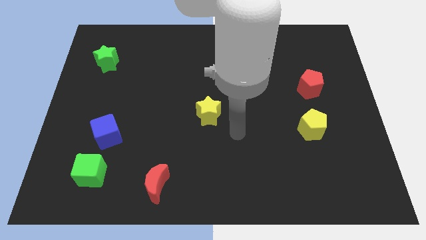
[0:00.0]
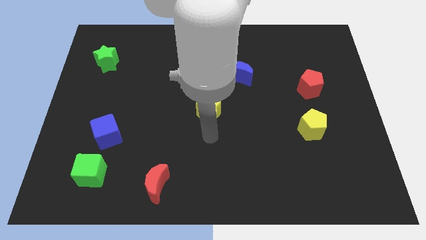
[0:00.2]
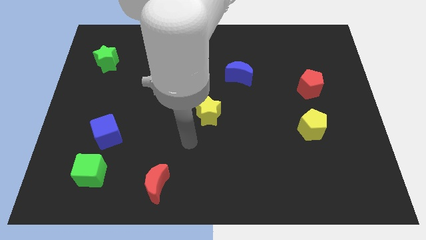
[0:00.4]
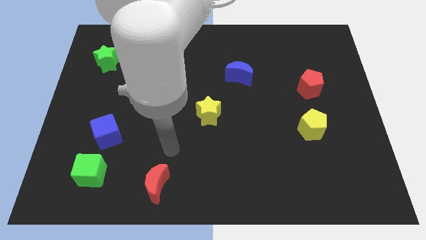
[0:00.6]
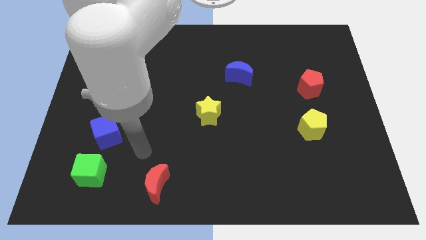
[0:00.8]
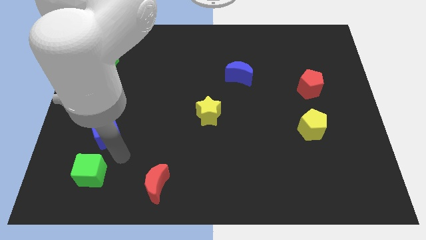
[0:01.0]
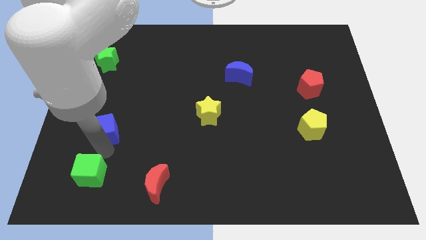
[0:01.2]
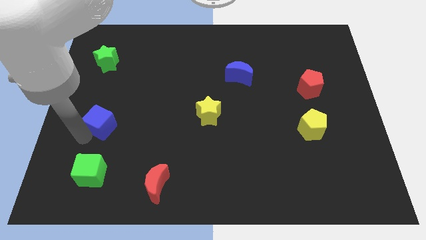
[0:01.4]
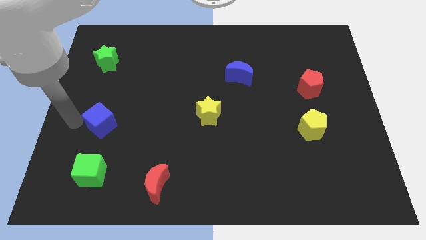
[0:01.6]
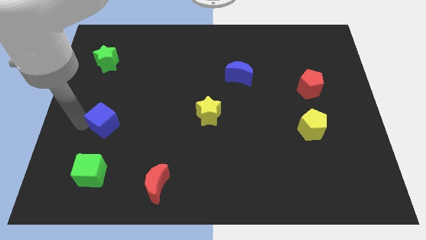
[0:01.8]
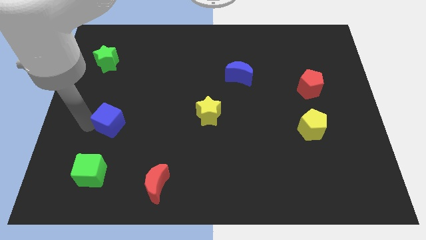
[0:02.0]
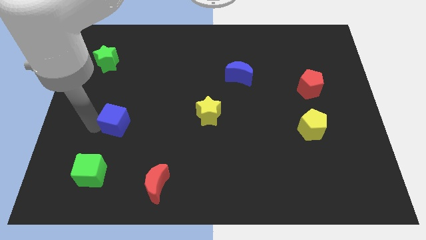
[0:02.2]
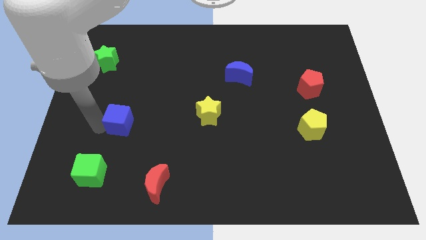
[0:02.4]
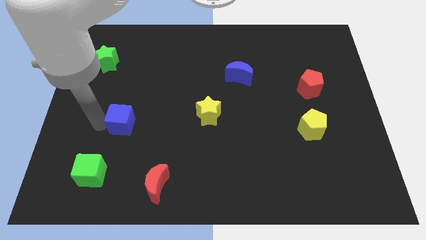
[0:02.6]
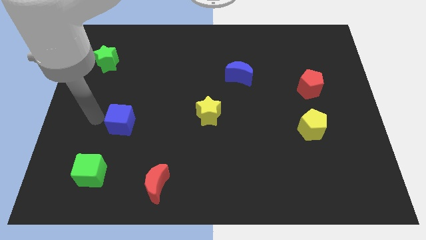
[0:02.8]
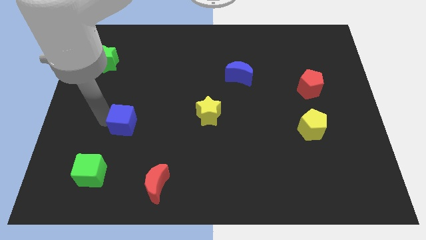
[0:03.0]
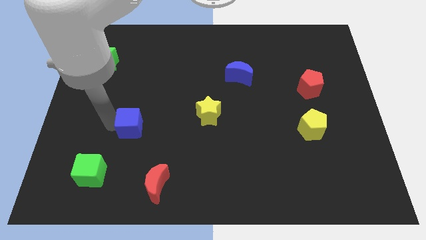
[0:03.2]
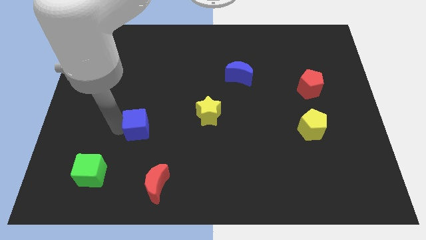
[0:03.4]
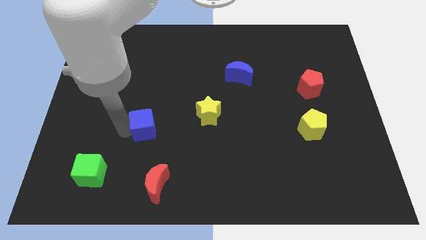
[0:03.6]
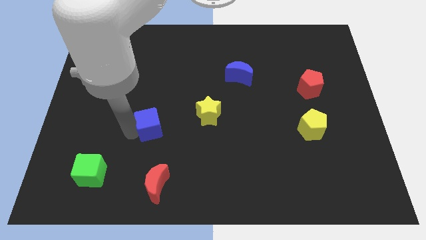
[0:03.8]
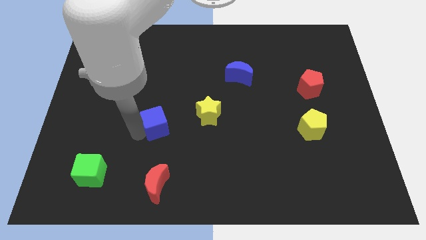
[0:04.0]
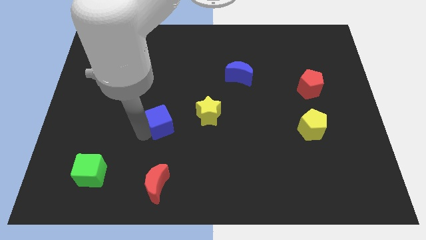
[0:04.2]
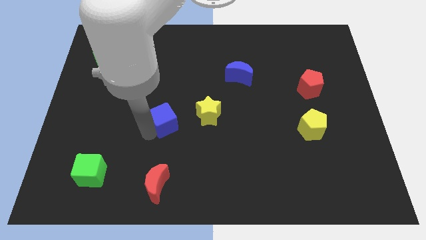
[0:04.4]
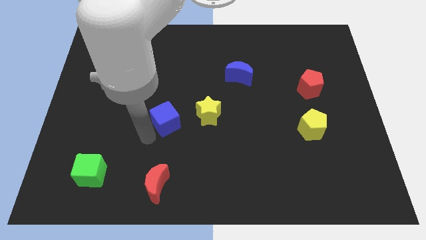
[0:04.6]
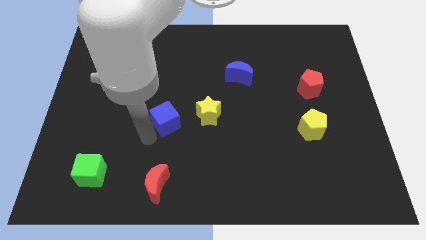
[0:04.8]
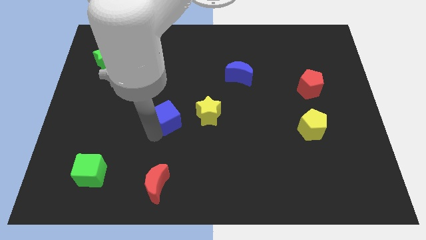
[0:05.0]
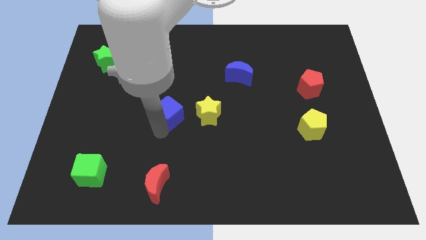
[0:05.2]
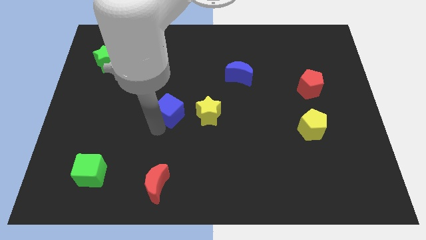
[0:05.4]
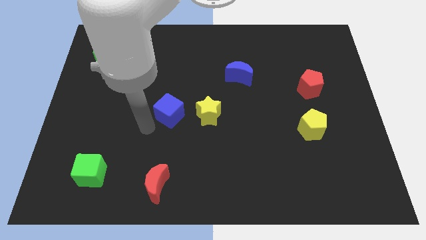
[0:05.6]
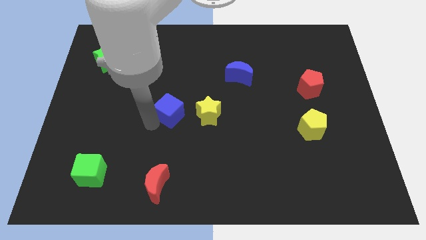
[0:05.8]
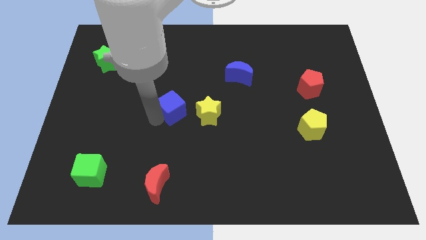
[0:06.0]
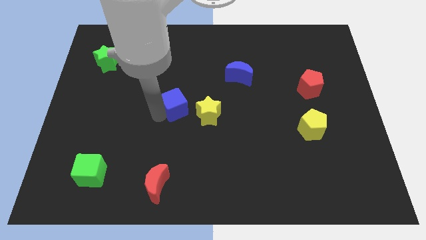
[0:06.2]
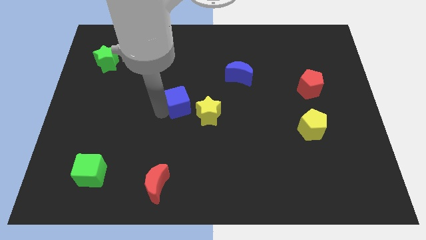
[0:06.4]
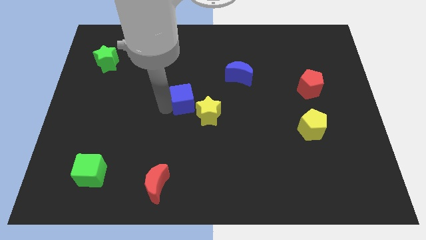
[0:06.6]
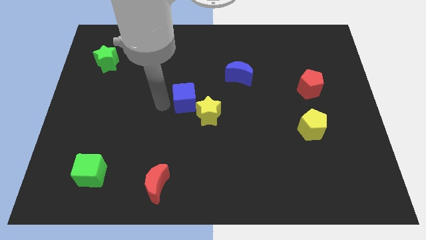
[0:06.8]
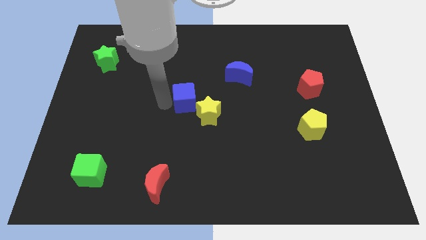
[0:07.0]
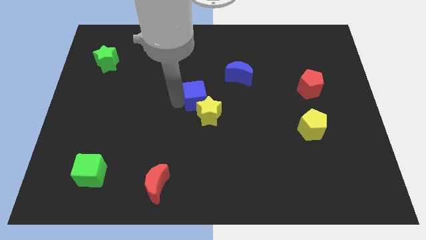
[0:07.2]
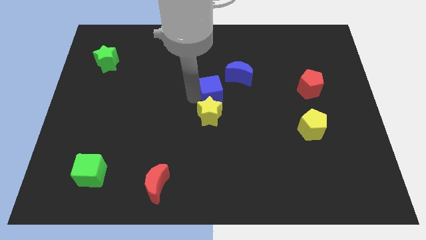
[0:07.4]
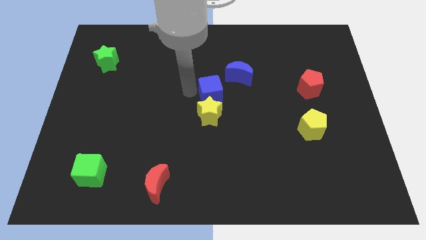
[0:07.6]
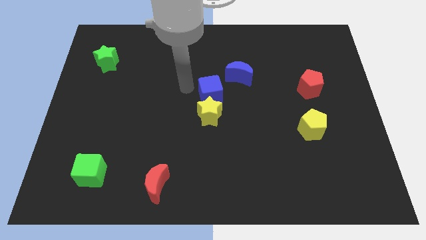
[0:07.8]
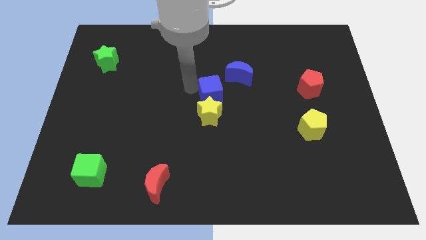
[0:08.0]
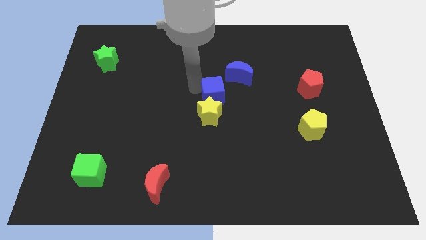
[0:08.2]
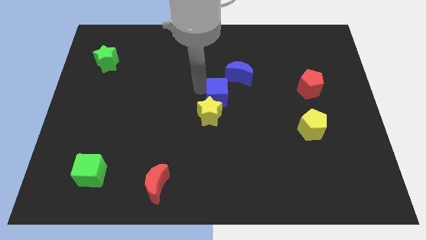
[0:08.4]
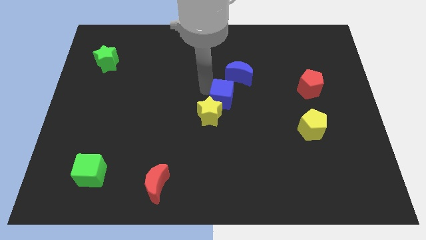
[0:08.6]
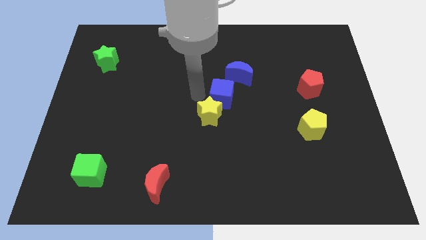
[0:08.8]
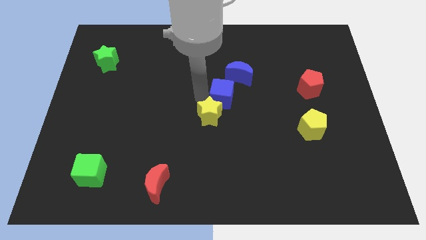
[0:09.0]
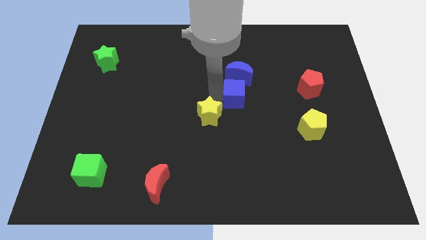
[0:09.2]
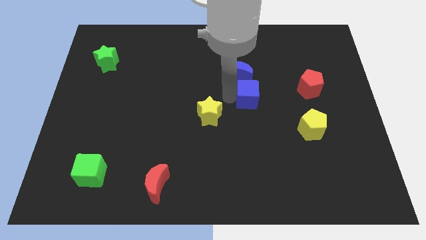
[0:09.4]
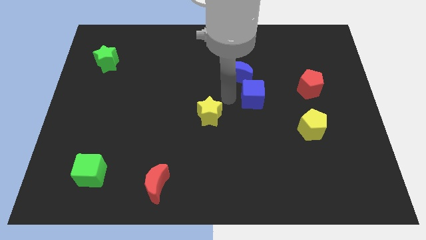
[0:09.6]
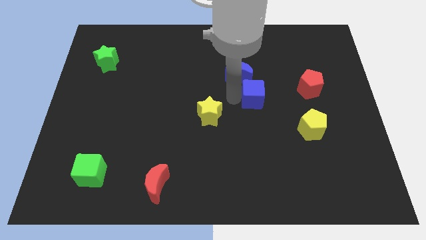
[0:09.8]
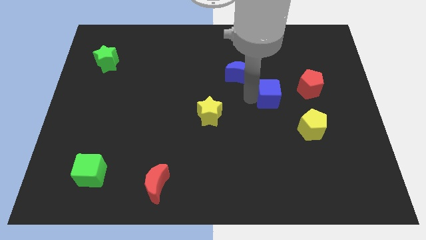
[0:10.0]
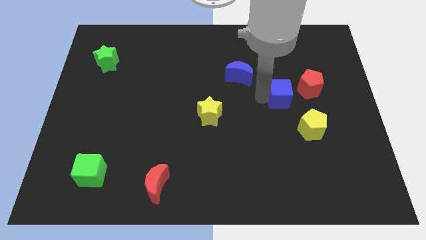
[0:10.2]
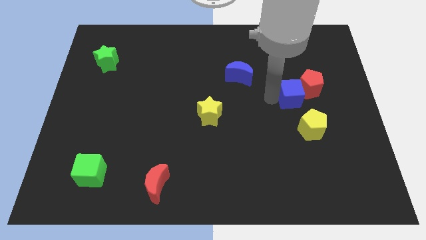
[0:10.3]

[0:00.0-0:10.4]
slide the blue cube towards the red pentagon

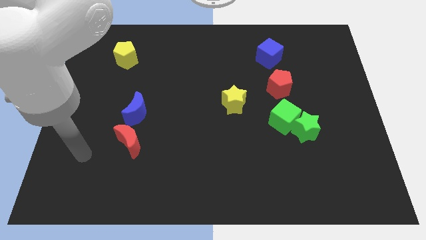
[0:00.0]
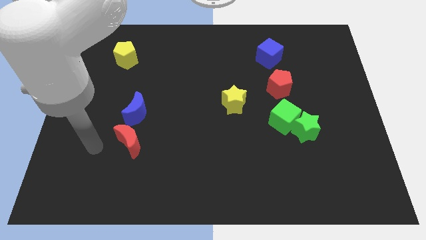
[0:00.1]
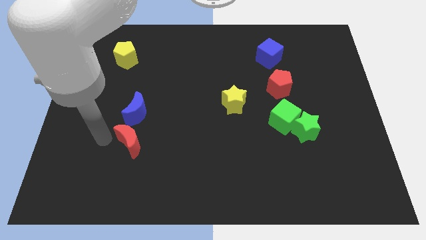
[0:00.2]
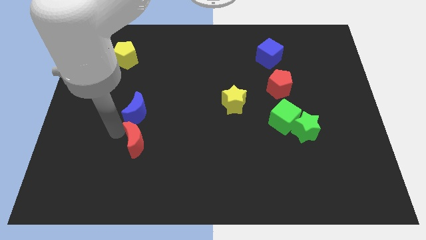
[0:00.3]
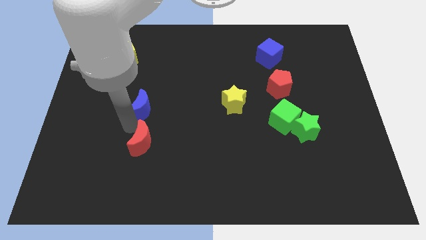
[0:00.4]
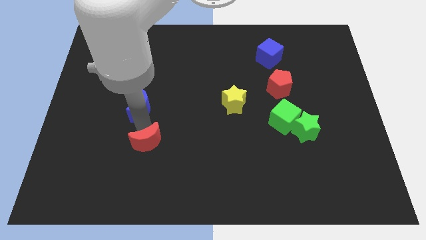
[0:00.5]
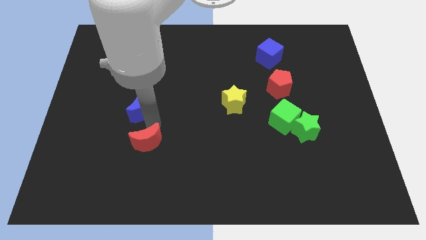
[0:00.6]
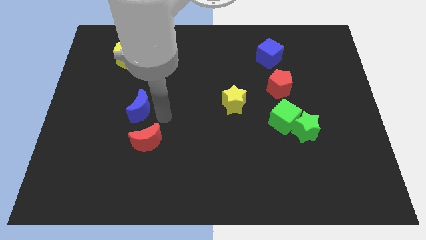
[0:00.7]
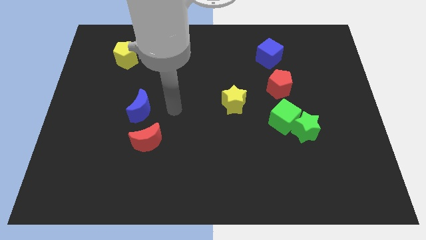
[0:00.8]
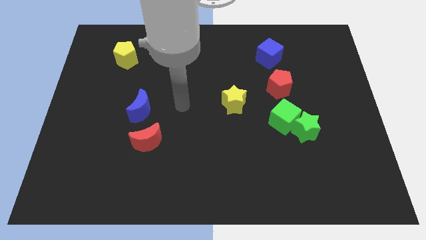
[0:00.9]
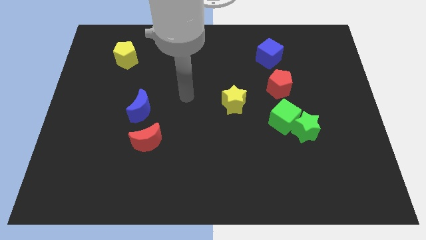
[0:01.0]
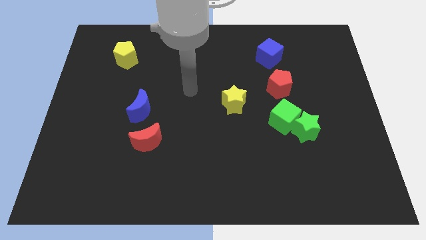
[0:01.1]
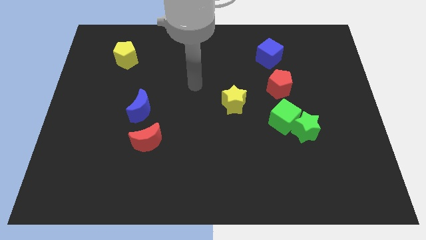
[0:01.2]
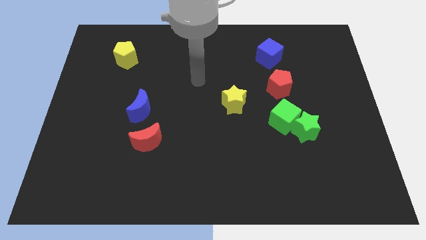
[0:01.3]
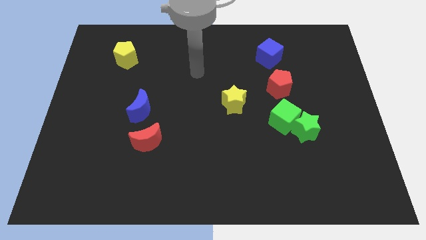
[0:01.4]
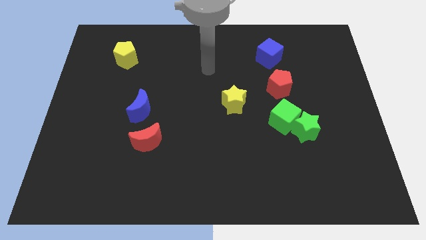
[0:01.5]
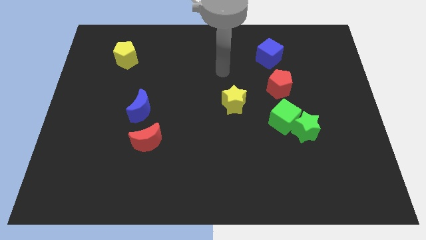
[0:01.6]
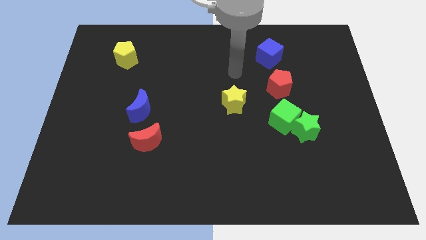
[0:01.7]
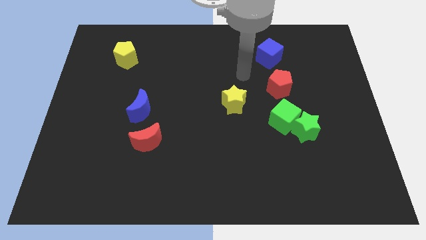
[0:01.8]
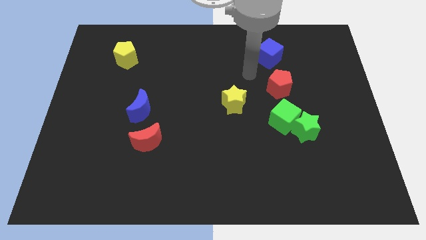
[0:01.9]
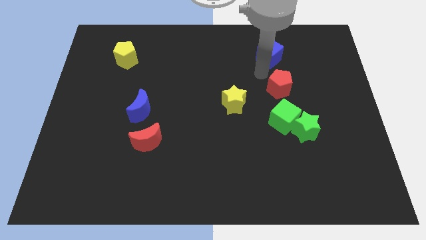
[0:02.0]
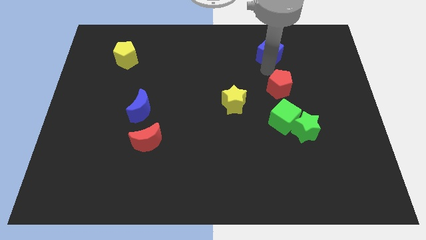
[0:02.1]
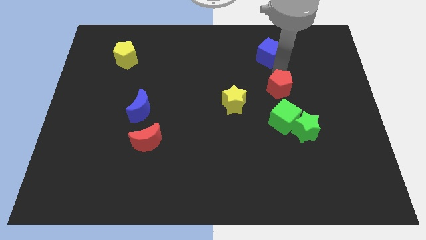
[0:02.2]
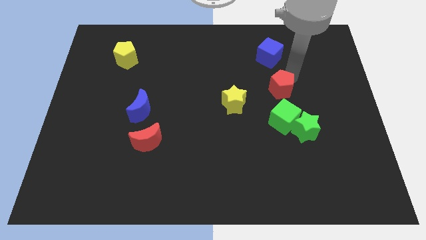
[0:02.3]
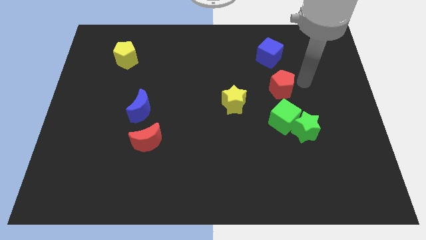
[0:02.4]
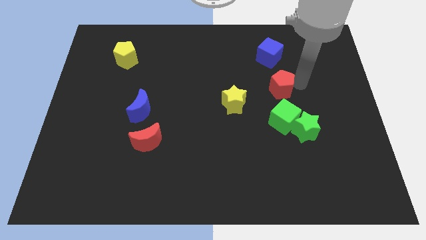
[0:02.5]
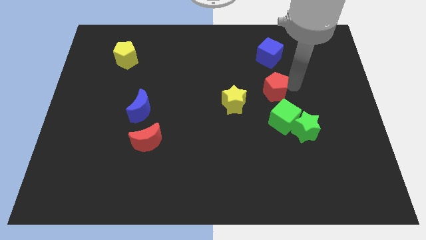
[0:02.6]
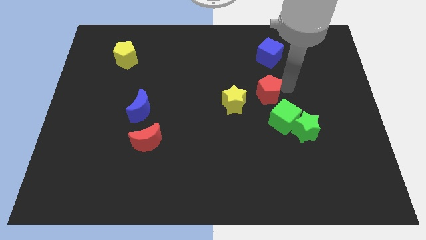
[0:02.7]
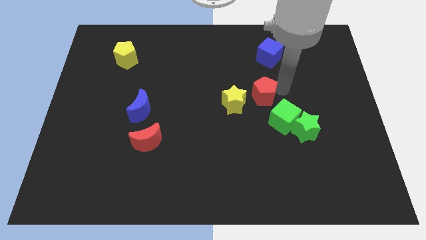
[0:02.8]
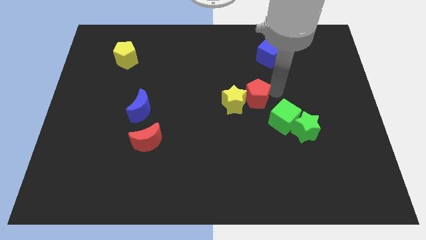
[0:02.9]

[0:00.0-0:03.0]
put the red pentagon to the yellow star
